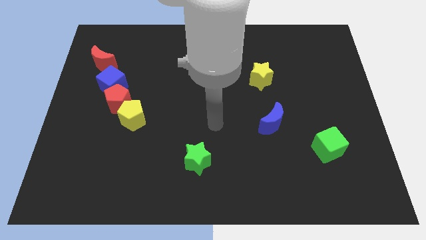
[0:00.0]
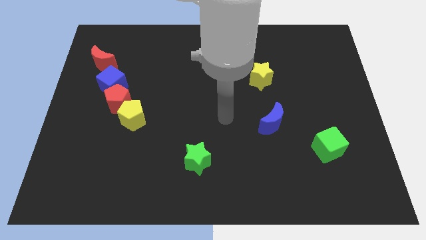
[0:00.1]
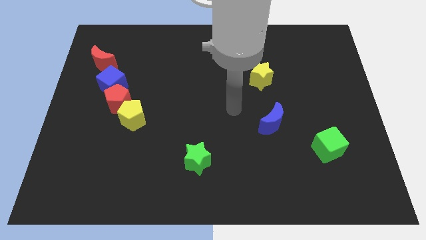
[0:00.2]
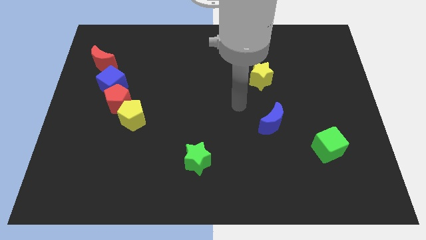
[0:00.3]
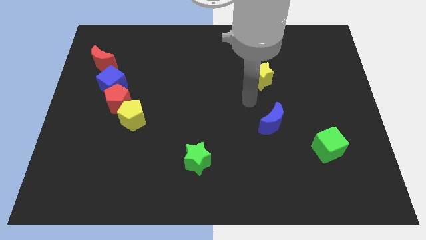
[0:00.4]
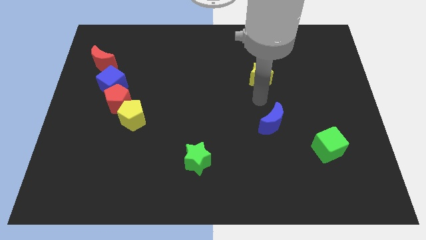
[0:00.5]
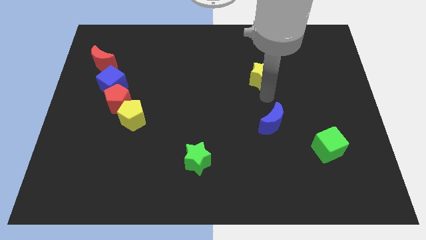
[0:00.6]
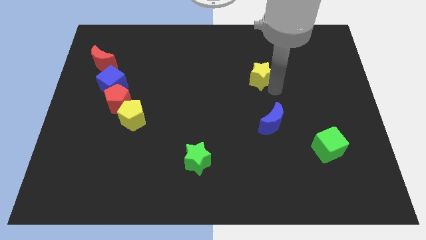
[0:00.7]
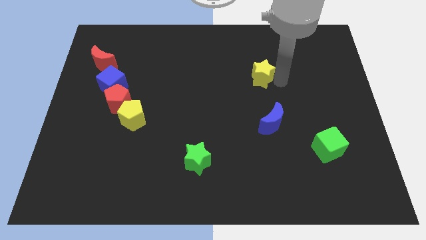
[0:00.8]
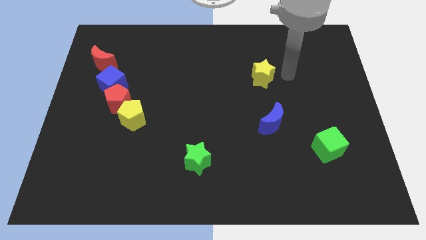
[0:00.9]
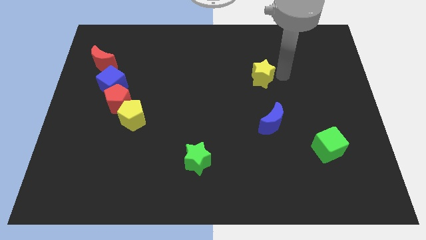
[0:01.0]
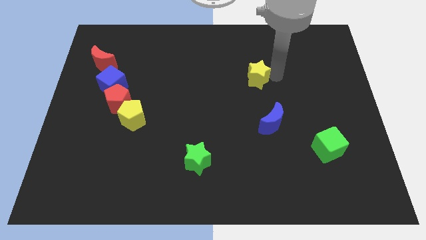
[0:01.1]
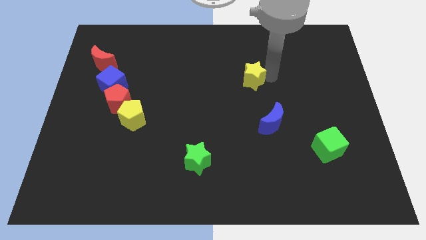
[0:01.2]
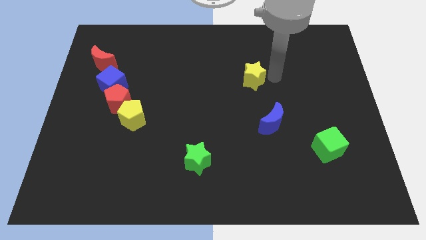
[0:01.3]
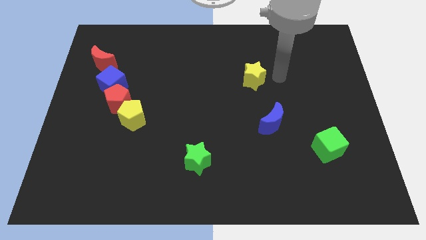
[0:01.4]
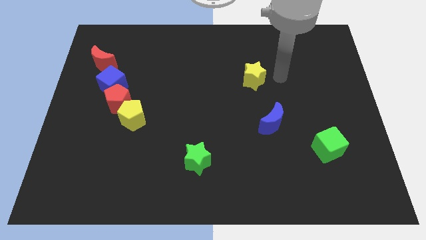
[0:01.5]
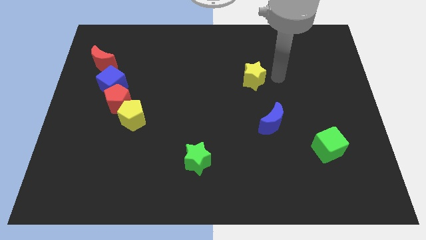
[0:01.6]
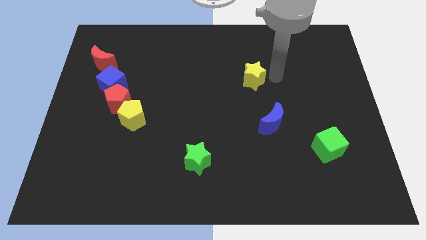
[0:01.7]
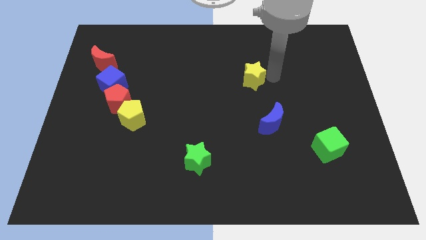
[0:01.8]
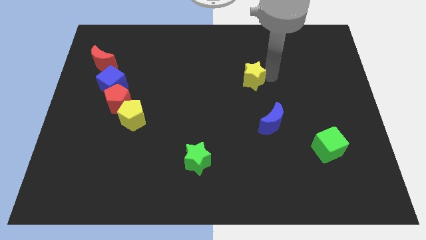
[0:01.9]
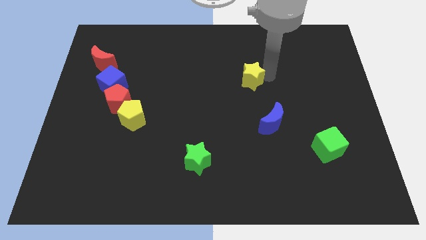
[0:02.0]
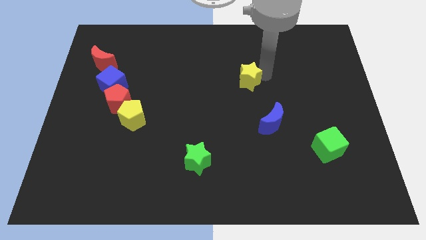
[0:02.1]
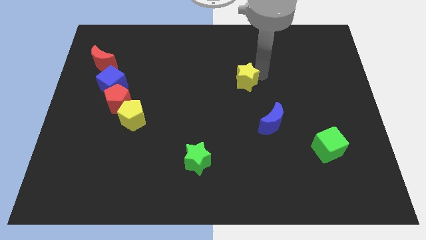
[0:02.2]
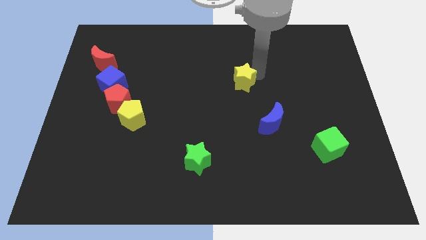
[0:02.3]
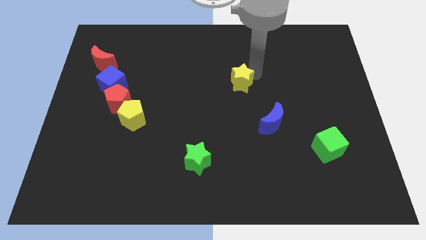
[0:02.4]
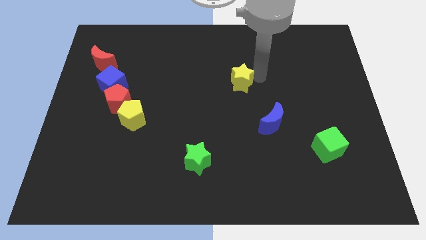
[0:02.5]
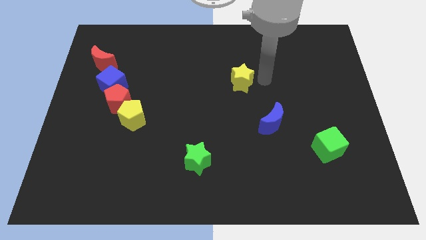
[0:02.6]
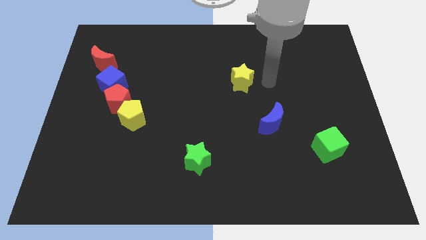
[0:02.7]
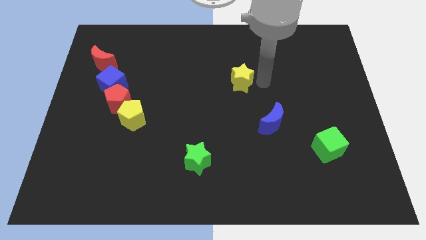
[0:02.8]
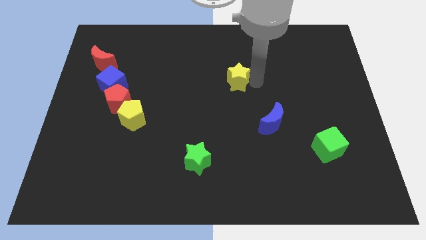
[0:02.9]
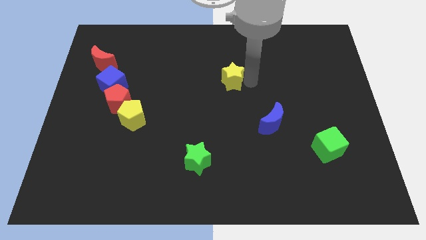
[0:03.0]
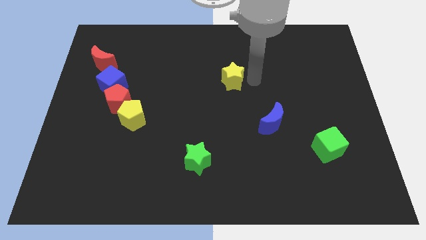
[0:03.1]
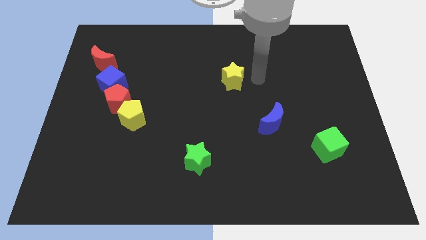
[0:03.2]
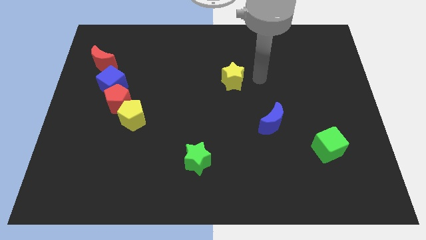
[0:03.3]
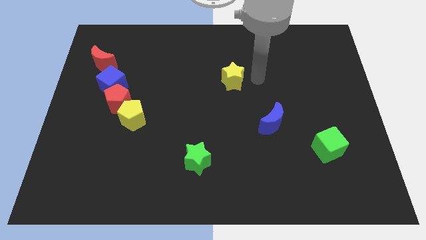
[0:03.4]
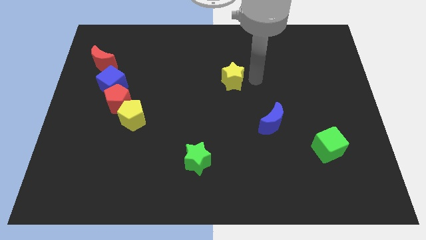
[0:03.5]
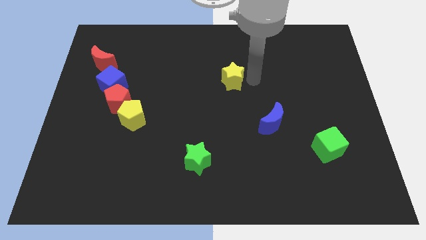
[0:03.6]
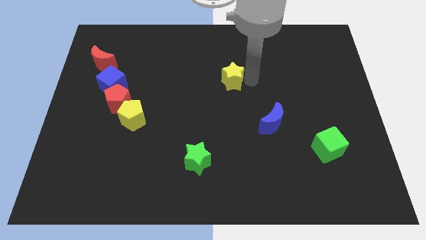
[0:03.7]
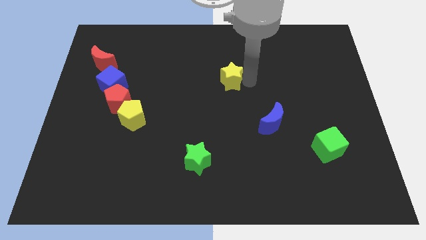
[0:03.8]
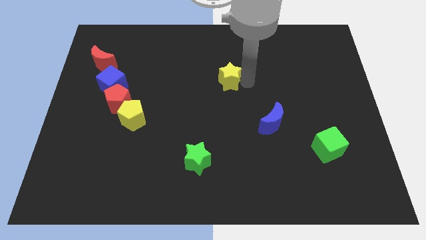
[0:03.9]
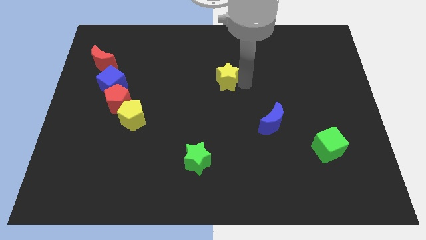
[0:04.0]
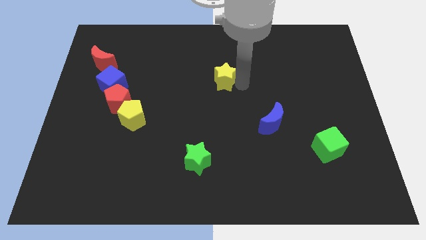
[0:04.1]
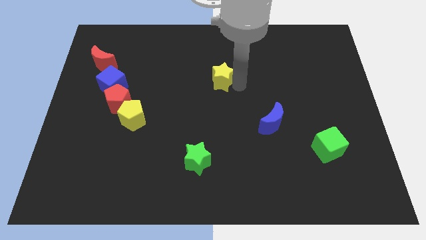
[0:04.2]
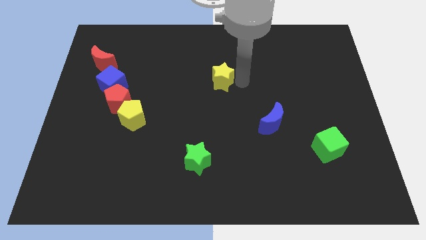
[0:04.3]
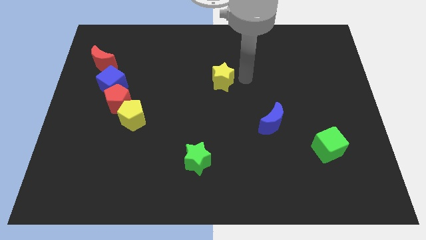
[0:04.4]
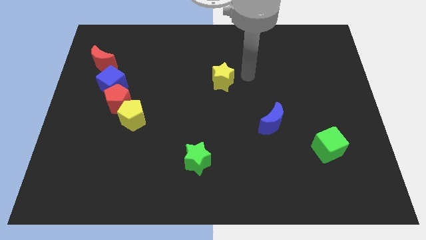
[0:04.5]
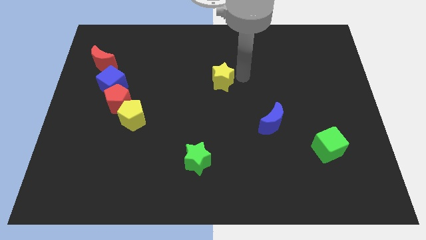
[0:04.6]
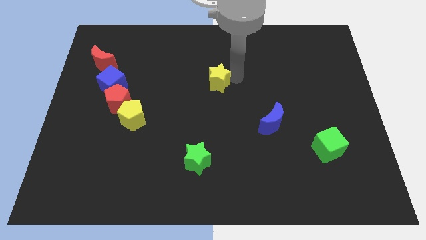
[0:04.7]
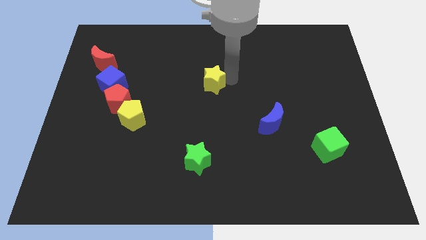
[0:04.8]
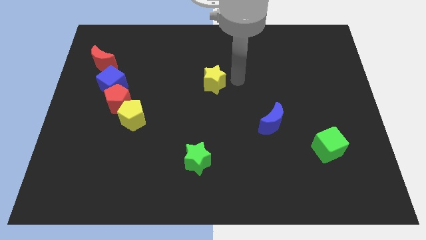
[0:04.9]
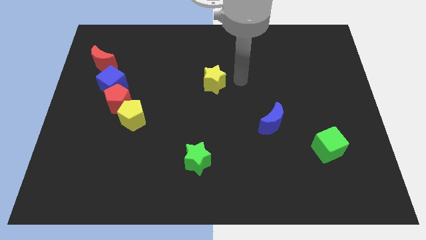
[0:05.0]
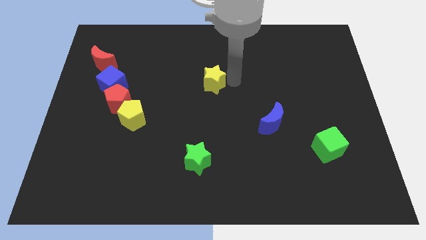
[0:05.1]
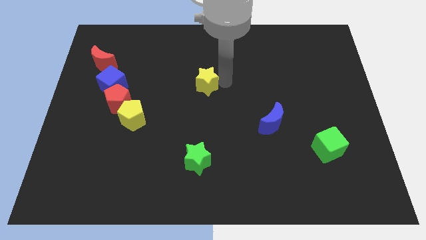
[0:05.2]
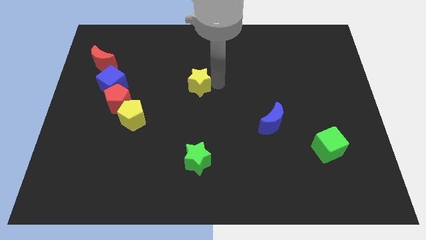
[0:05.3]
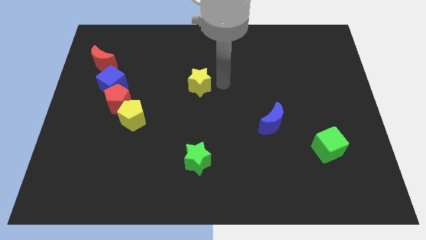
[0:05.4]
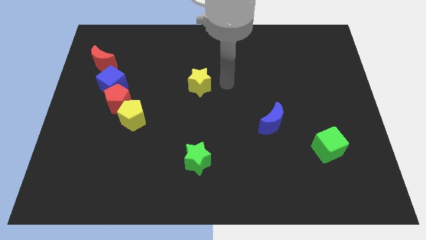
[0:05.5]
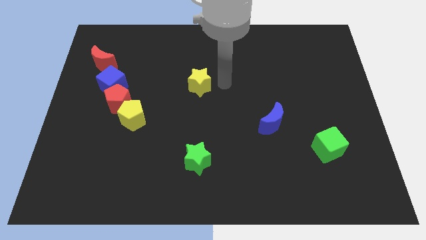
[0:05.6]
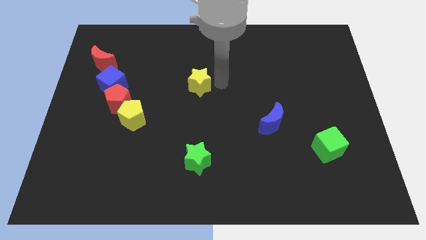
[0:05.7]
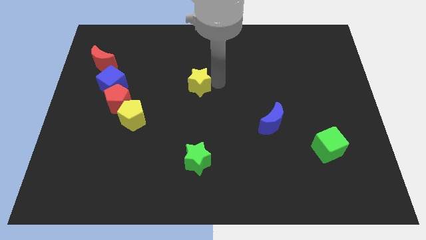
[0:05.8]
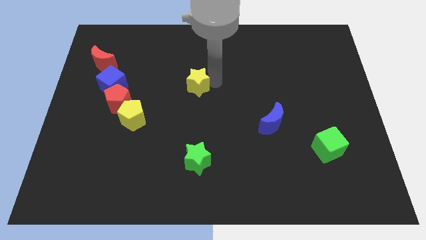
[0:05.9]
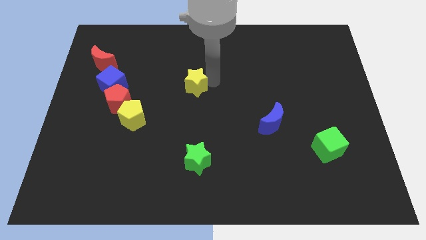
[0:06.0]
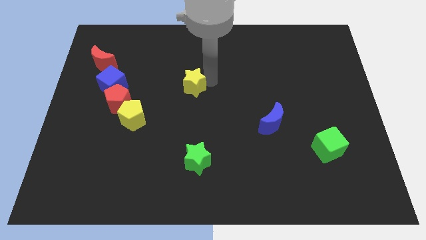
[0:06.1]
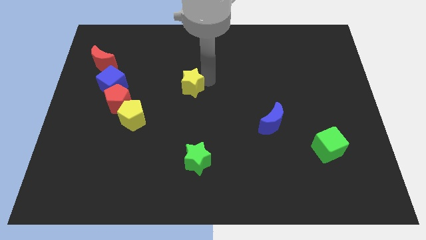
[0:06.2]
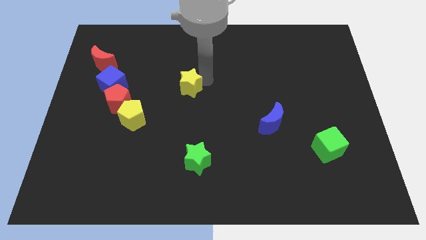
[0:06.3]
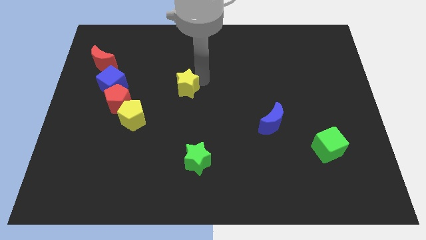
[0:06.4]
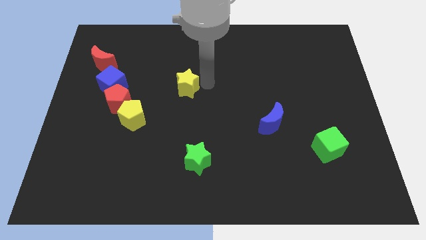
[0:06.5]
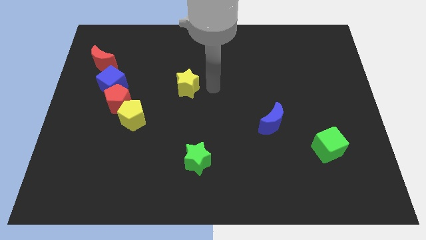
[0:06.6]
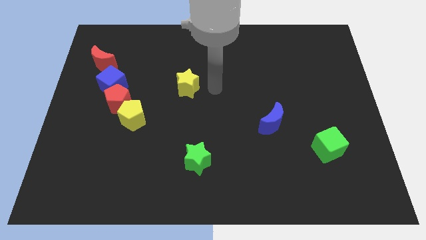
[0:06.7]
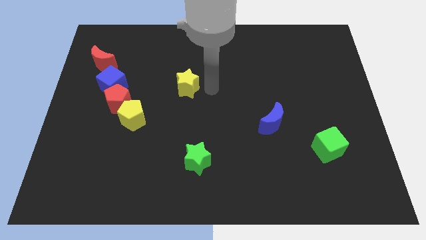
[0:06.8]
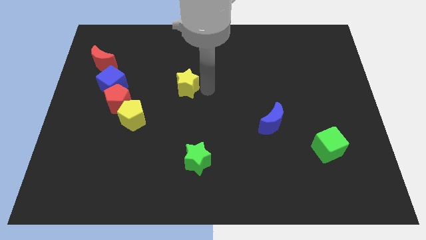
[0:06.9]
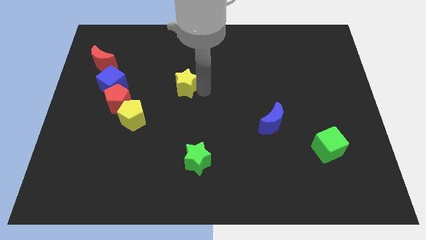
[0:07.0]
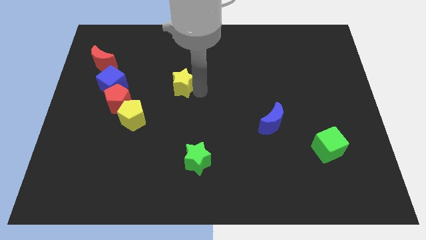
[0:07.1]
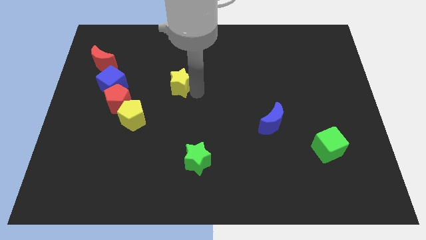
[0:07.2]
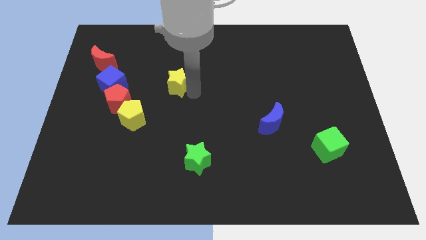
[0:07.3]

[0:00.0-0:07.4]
slide the yellow star to the right of the blue cube
